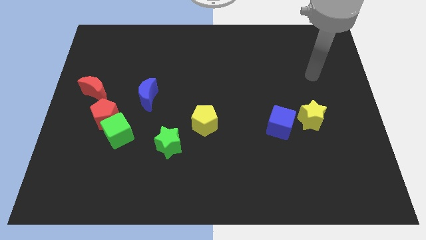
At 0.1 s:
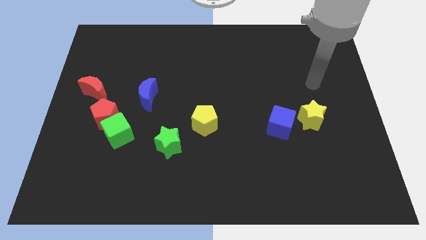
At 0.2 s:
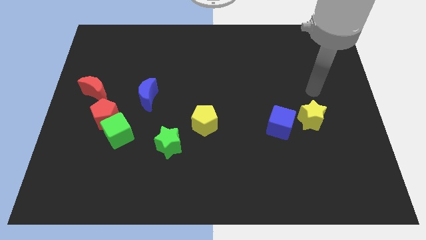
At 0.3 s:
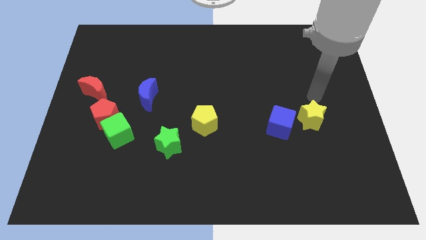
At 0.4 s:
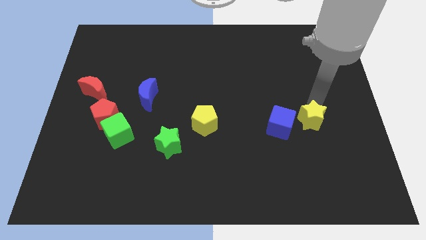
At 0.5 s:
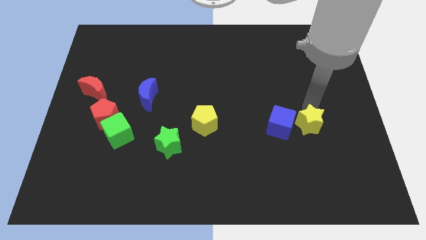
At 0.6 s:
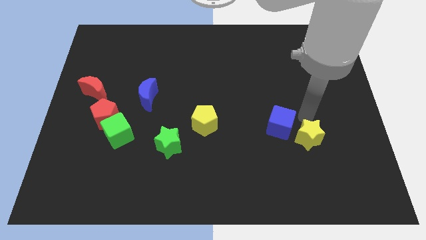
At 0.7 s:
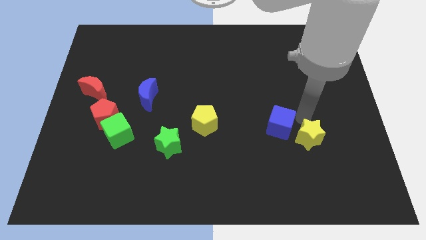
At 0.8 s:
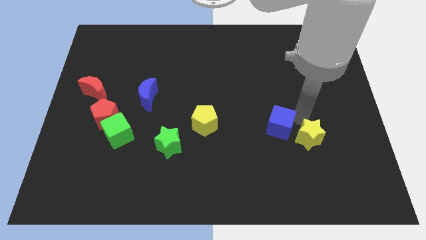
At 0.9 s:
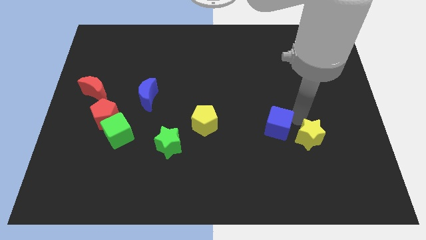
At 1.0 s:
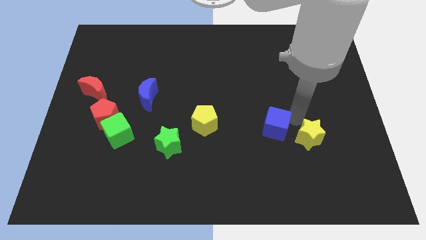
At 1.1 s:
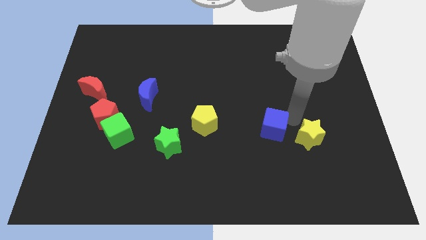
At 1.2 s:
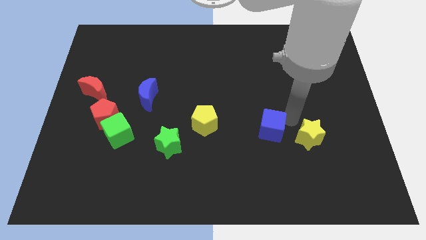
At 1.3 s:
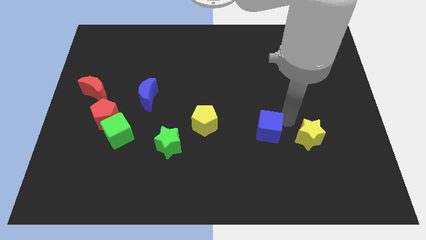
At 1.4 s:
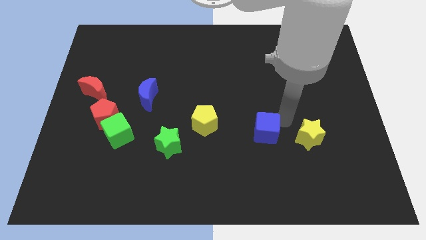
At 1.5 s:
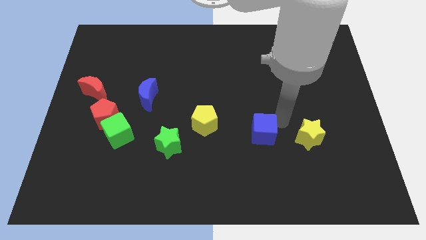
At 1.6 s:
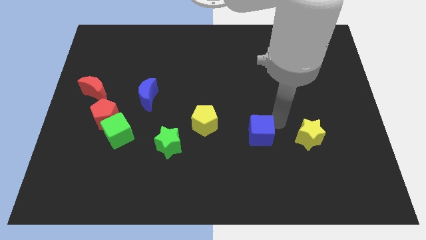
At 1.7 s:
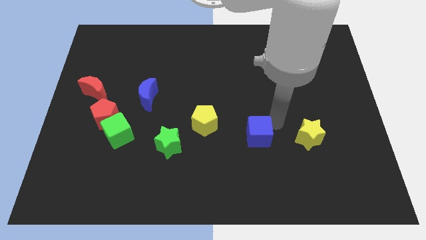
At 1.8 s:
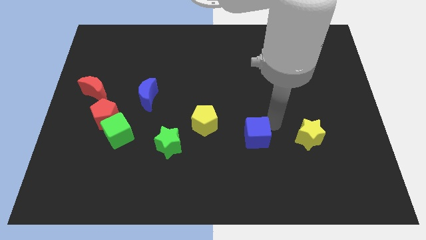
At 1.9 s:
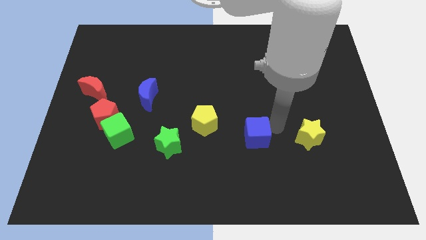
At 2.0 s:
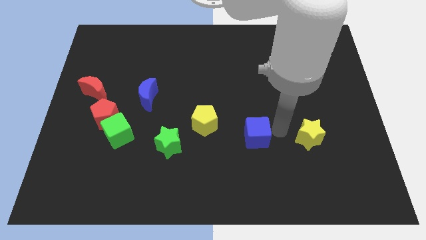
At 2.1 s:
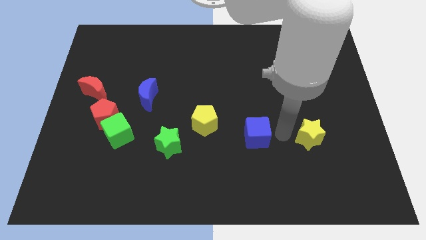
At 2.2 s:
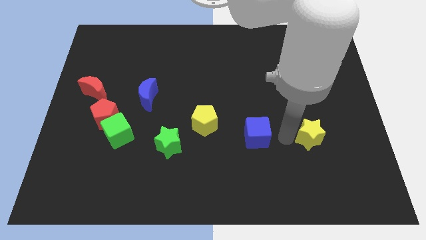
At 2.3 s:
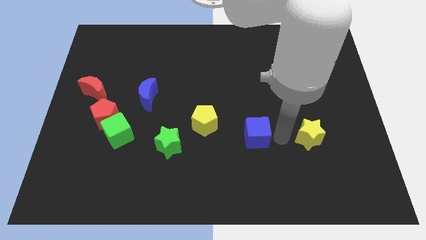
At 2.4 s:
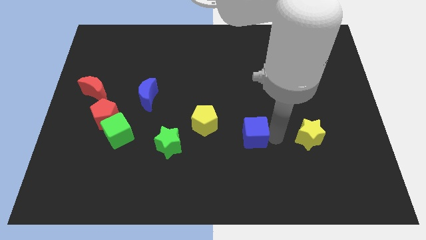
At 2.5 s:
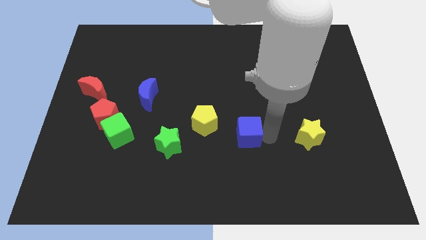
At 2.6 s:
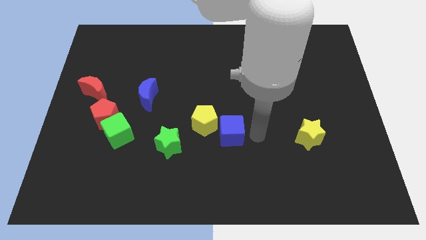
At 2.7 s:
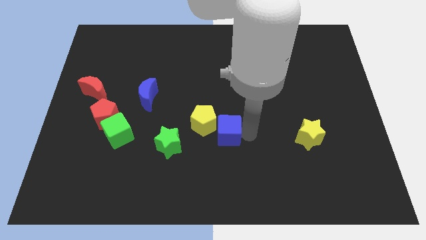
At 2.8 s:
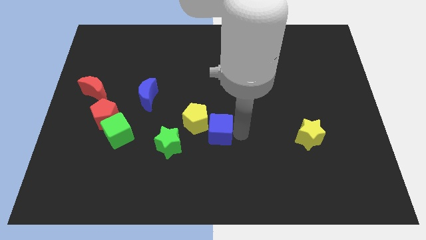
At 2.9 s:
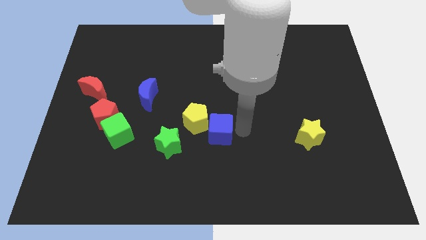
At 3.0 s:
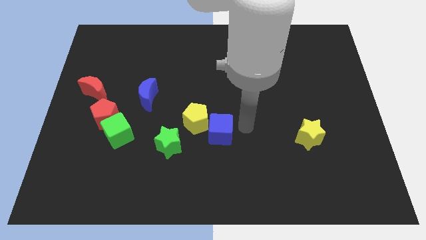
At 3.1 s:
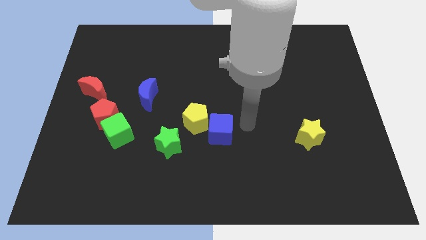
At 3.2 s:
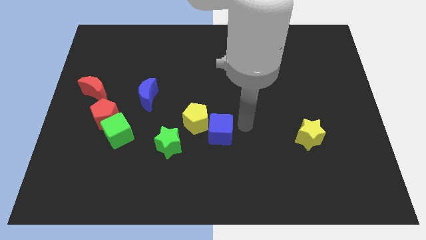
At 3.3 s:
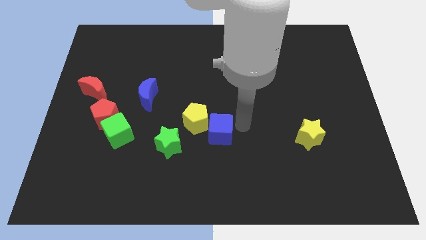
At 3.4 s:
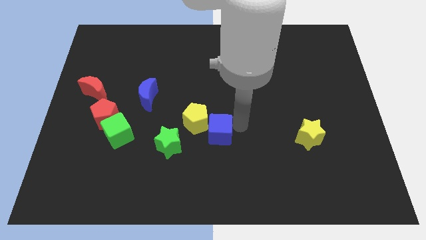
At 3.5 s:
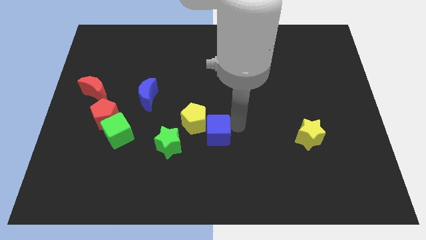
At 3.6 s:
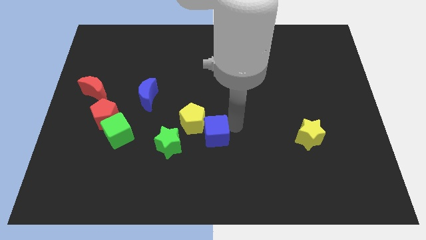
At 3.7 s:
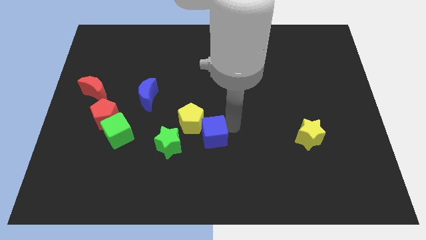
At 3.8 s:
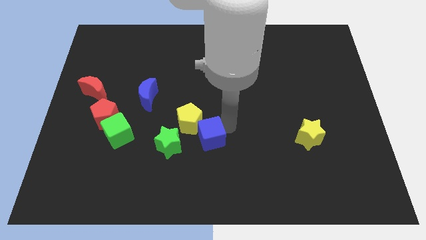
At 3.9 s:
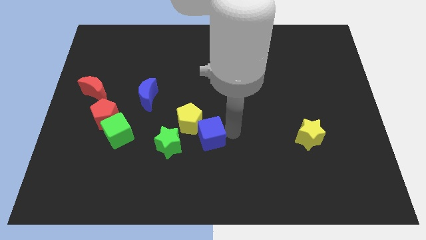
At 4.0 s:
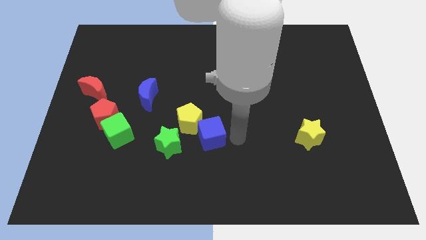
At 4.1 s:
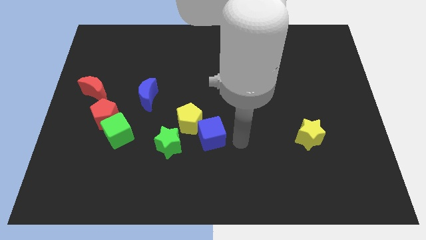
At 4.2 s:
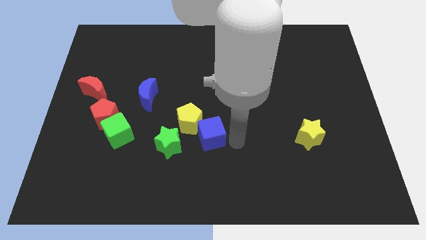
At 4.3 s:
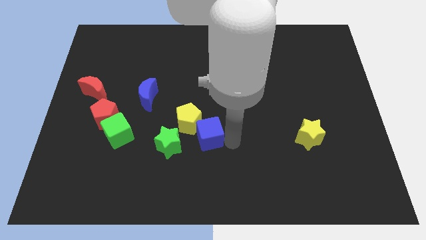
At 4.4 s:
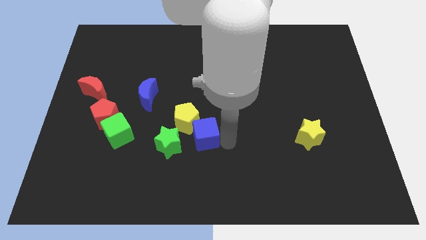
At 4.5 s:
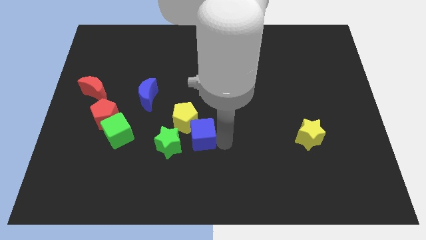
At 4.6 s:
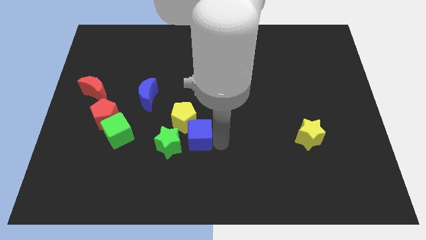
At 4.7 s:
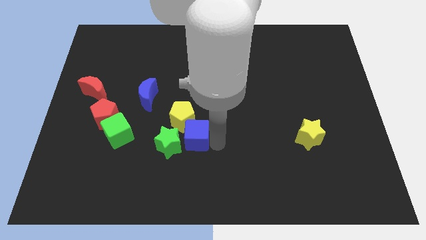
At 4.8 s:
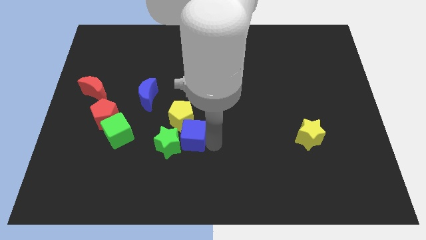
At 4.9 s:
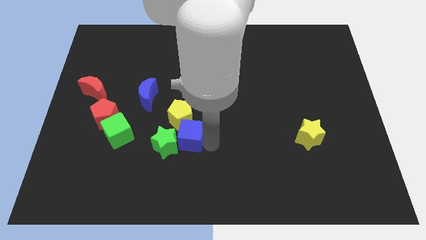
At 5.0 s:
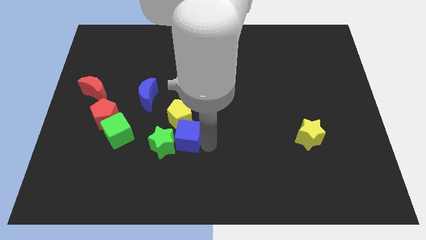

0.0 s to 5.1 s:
move the blue cube left

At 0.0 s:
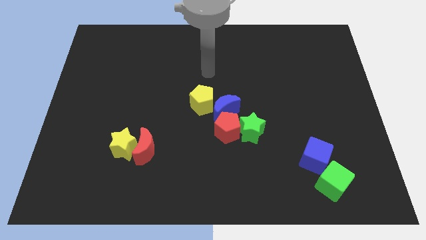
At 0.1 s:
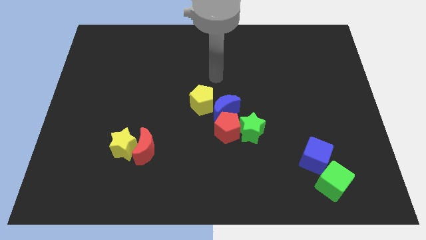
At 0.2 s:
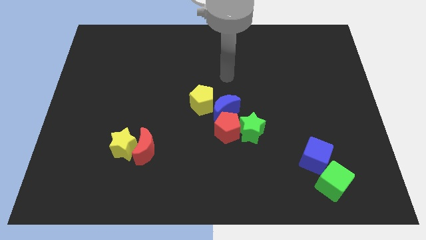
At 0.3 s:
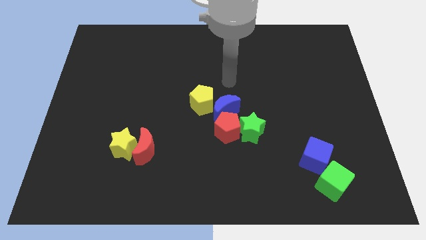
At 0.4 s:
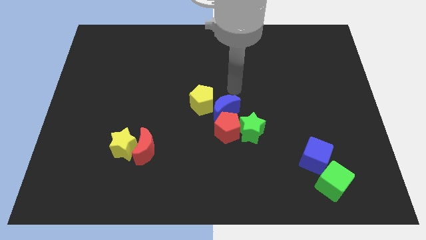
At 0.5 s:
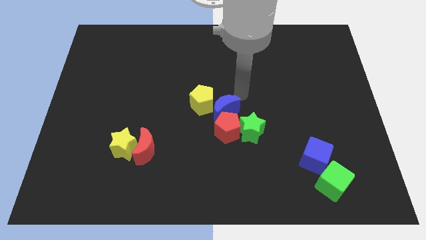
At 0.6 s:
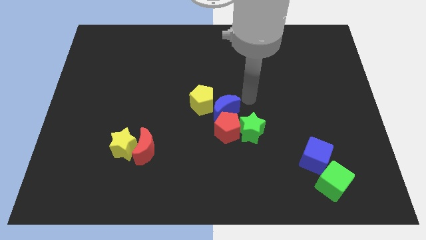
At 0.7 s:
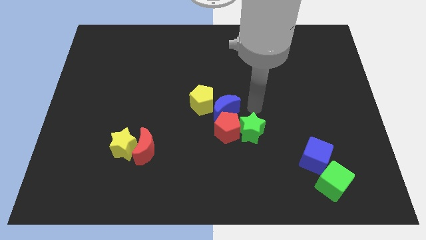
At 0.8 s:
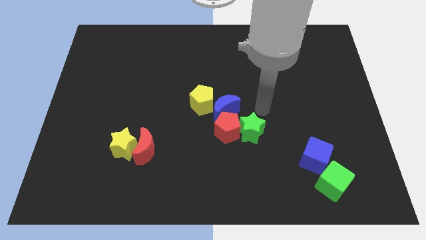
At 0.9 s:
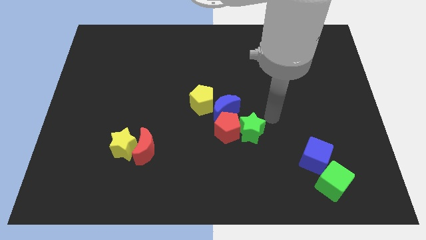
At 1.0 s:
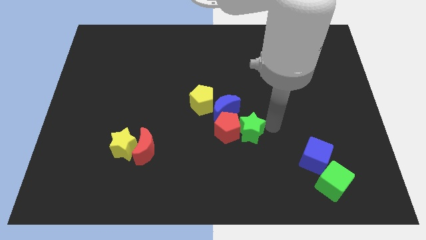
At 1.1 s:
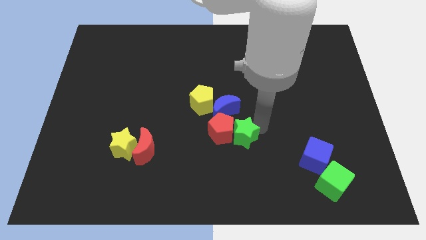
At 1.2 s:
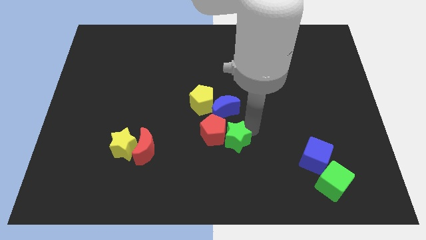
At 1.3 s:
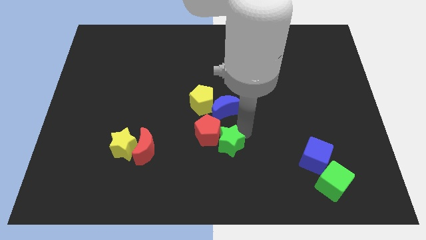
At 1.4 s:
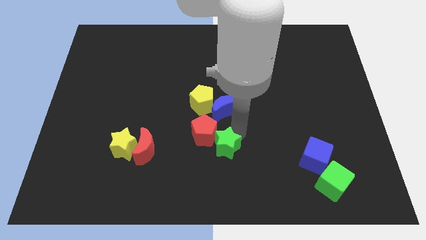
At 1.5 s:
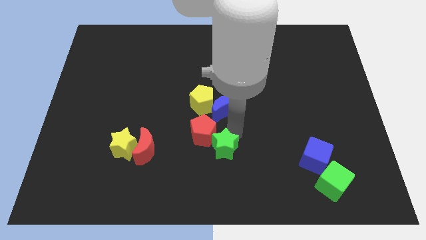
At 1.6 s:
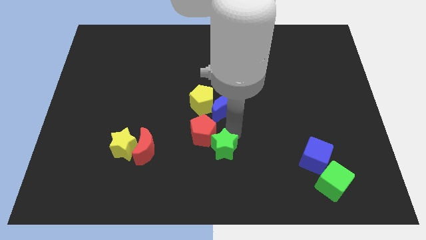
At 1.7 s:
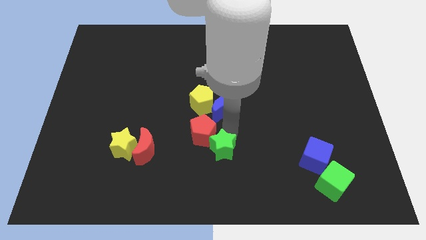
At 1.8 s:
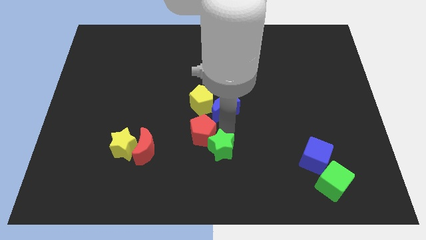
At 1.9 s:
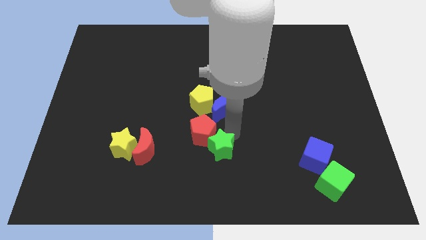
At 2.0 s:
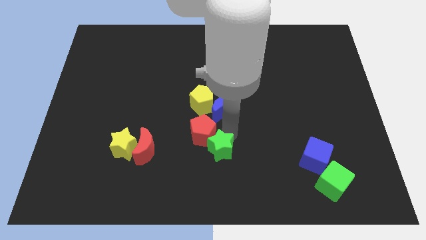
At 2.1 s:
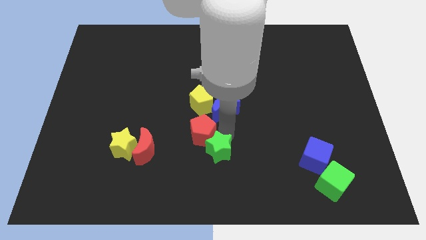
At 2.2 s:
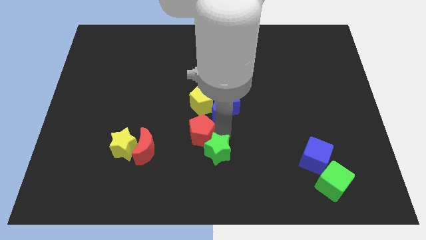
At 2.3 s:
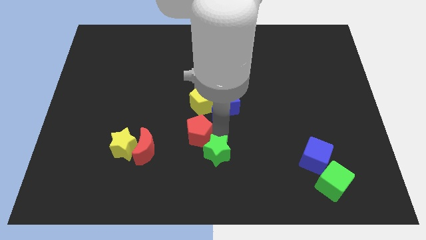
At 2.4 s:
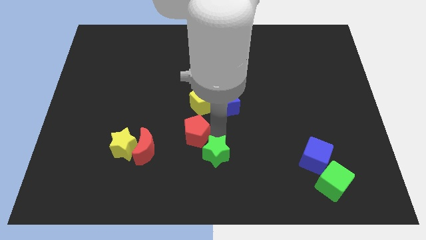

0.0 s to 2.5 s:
slightly slide the red pentagon left

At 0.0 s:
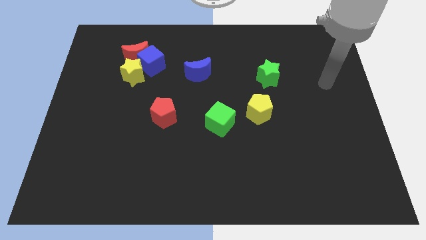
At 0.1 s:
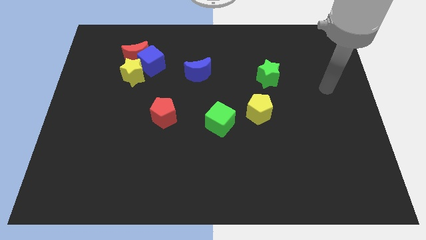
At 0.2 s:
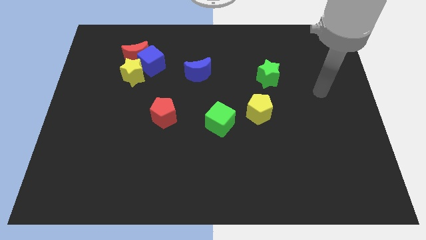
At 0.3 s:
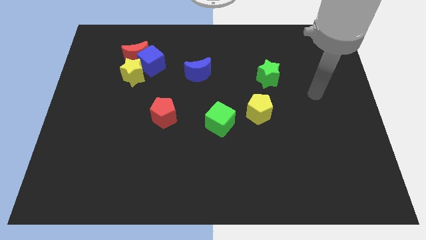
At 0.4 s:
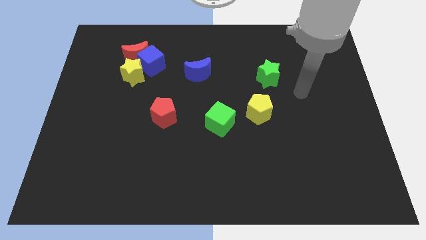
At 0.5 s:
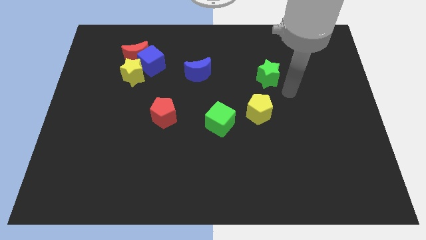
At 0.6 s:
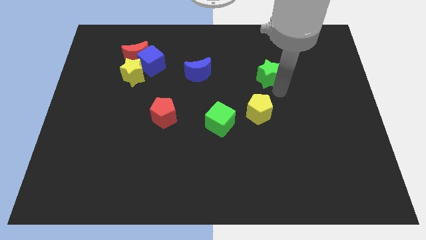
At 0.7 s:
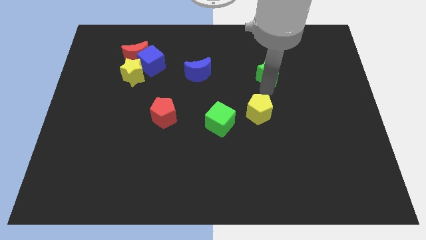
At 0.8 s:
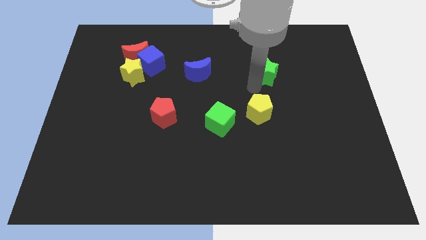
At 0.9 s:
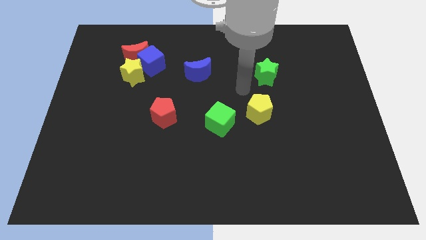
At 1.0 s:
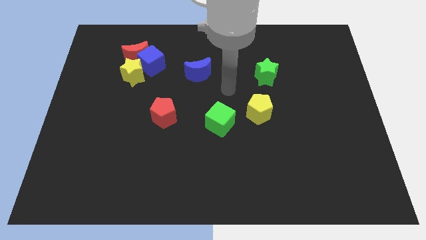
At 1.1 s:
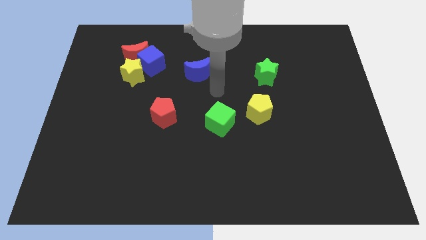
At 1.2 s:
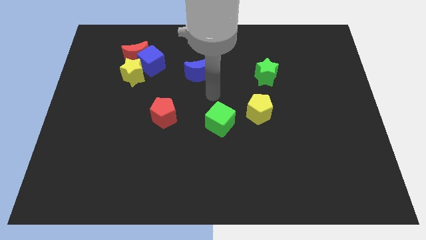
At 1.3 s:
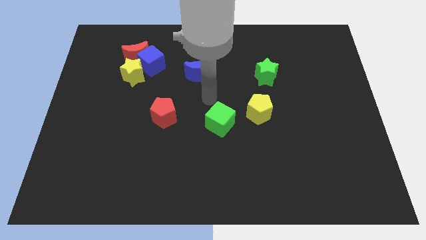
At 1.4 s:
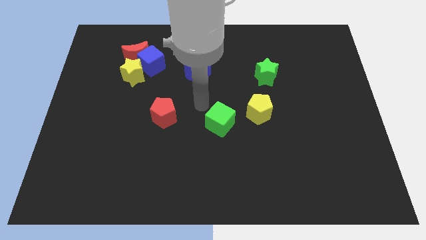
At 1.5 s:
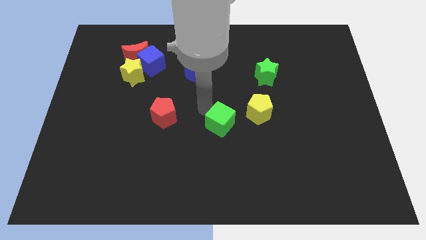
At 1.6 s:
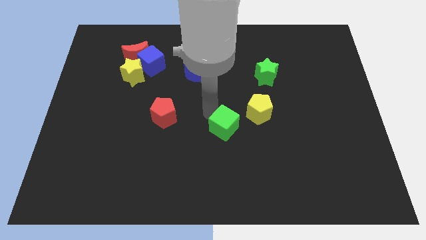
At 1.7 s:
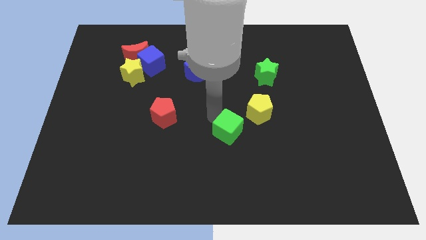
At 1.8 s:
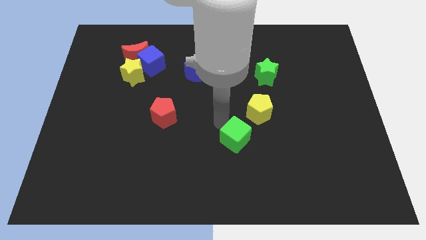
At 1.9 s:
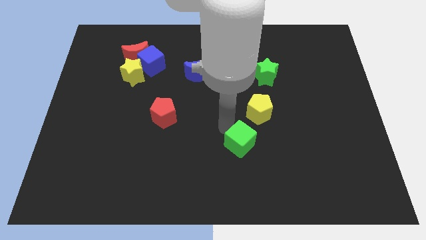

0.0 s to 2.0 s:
slightly push the green cube downwards and then to the right
